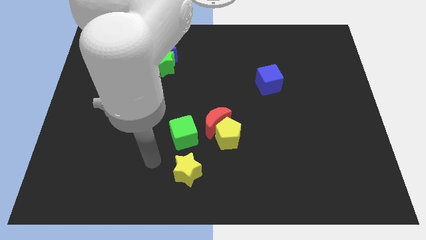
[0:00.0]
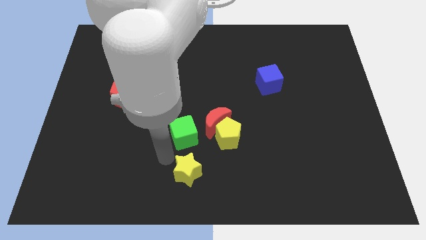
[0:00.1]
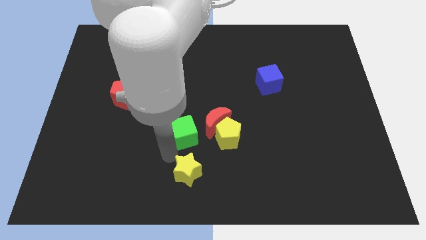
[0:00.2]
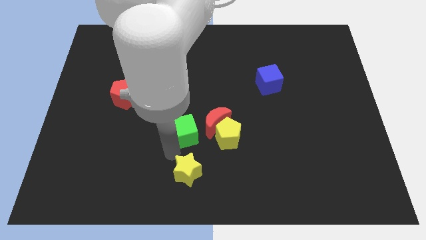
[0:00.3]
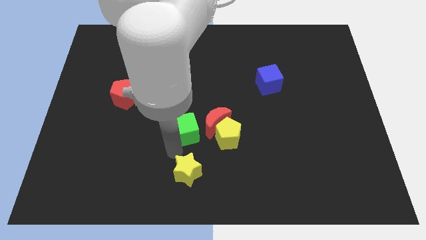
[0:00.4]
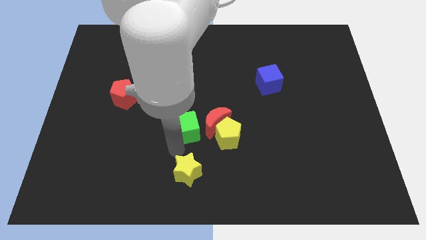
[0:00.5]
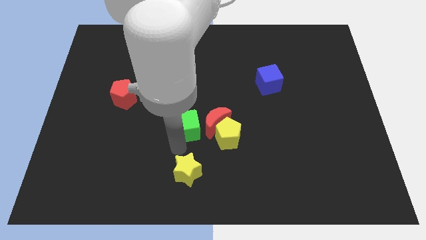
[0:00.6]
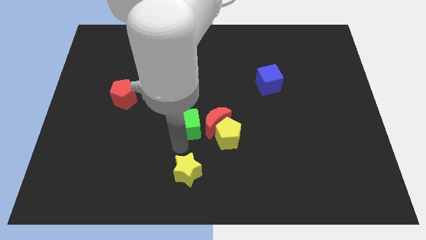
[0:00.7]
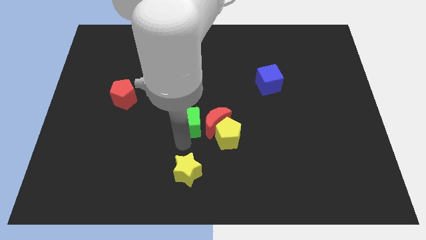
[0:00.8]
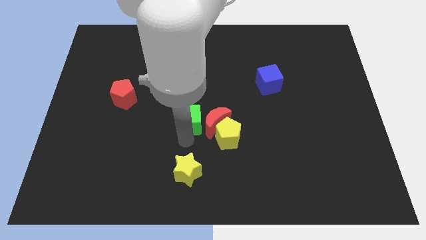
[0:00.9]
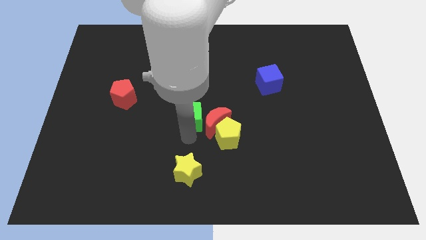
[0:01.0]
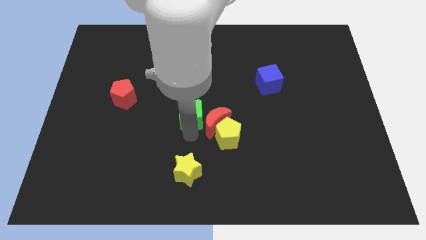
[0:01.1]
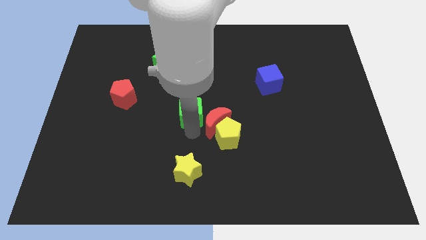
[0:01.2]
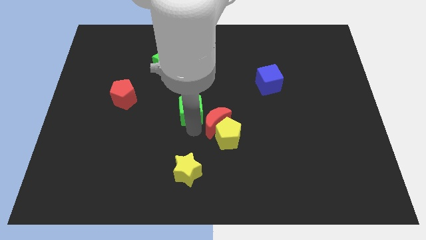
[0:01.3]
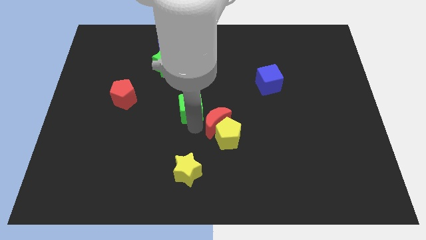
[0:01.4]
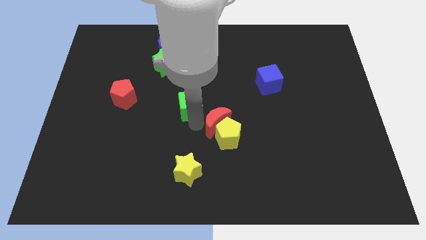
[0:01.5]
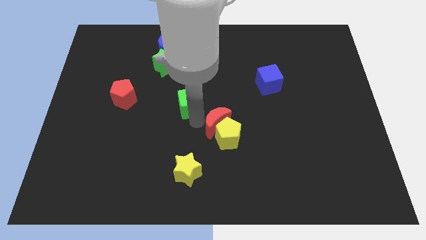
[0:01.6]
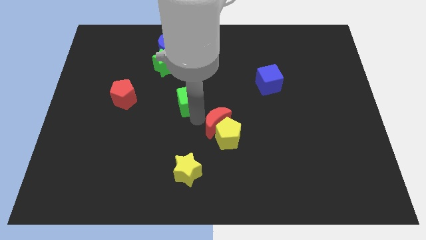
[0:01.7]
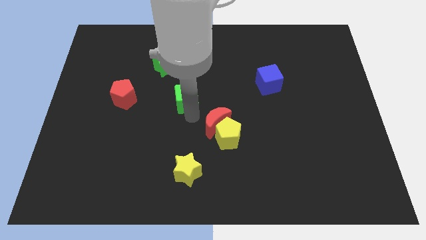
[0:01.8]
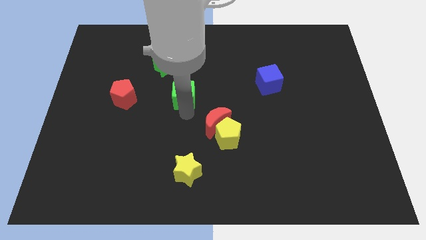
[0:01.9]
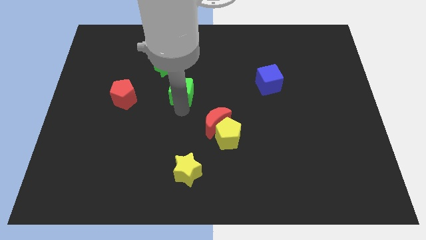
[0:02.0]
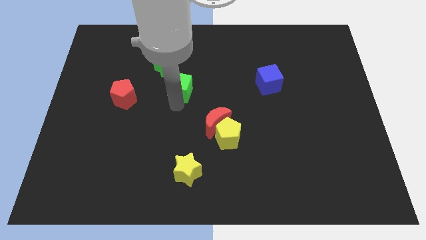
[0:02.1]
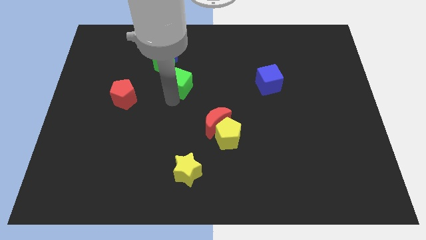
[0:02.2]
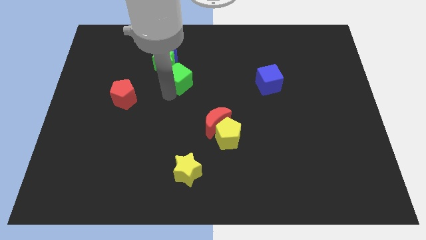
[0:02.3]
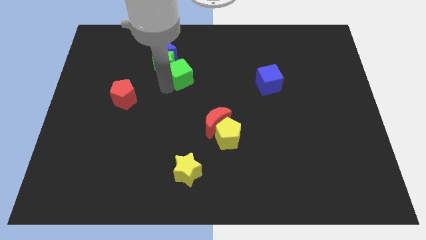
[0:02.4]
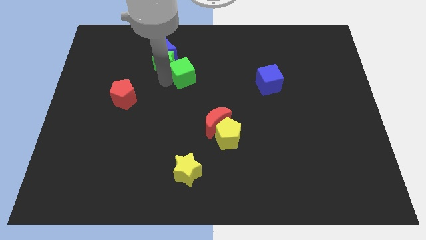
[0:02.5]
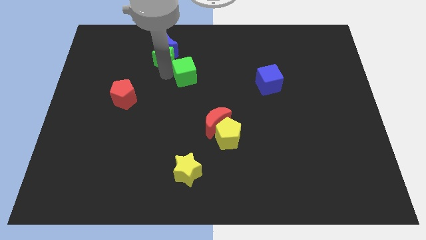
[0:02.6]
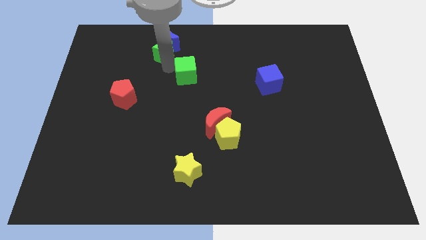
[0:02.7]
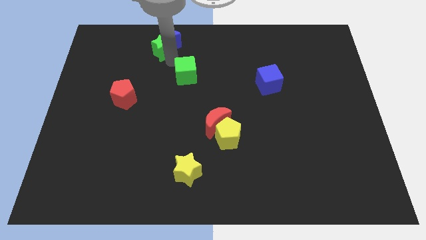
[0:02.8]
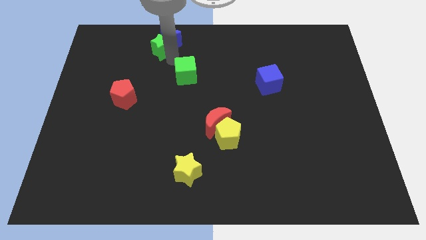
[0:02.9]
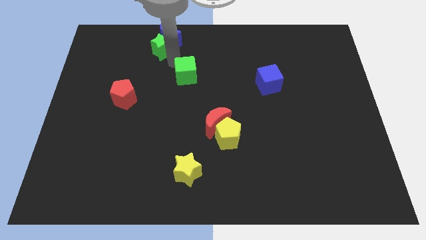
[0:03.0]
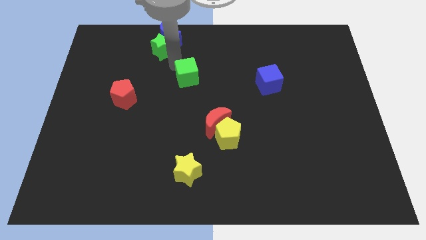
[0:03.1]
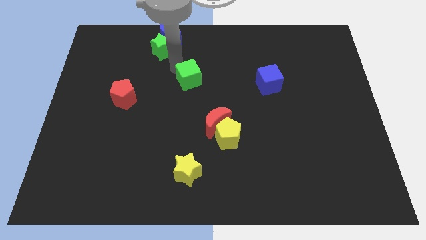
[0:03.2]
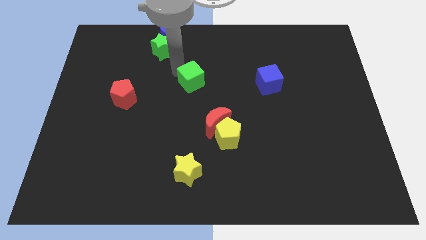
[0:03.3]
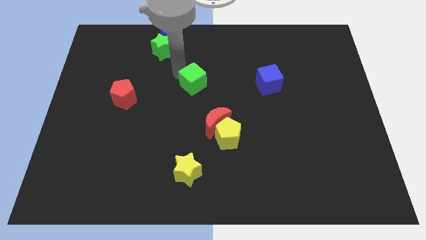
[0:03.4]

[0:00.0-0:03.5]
move the green cube somewhat diagonally up and right

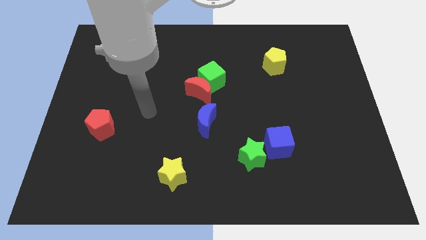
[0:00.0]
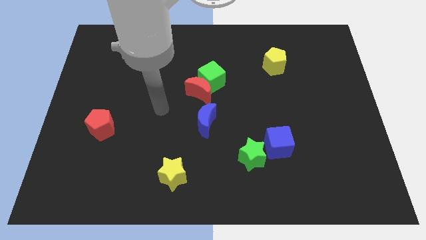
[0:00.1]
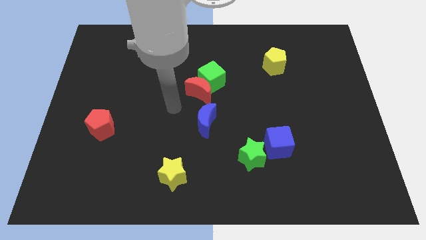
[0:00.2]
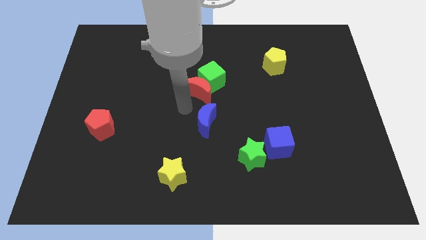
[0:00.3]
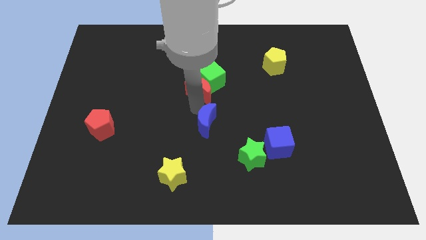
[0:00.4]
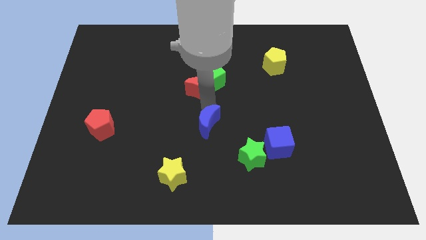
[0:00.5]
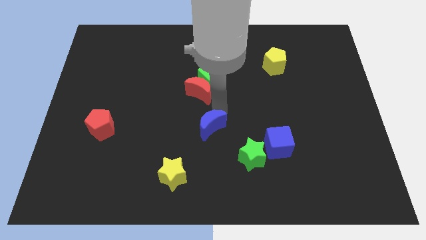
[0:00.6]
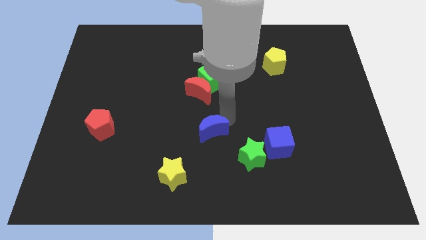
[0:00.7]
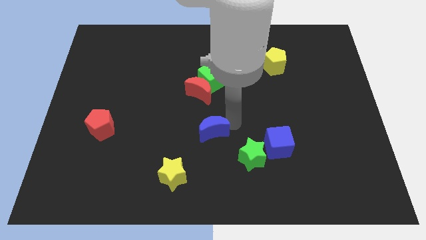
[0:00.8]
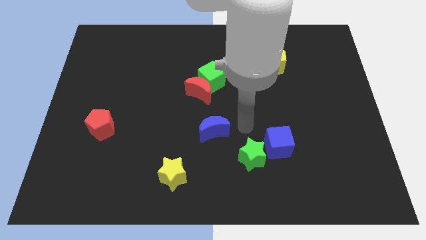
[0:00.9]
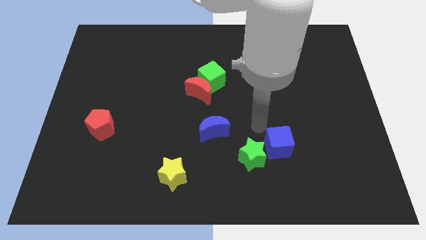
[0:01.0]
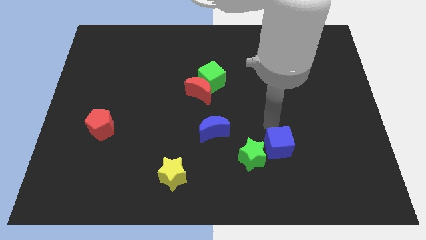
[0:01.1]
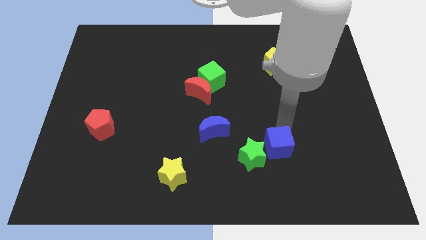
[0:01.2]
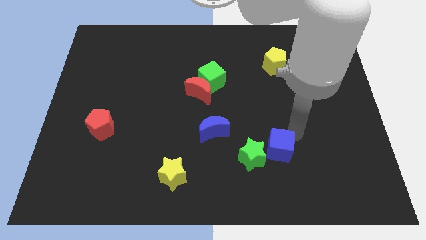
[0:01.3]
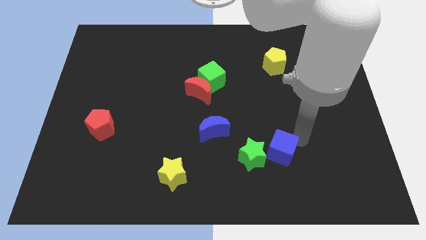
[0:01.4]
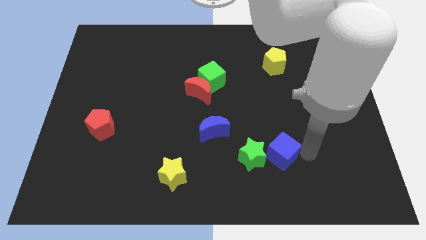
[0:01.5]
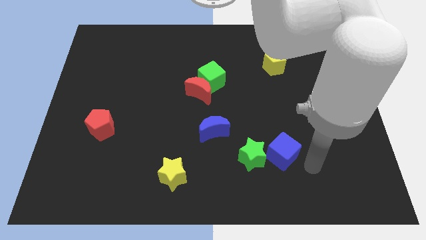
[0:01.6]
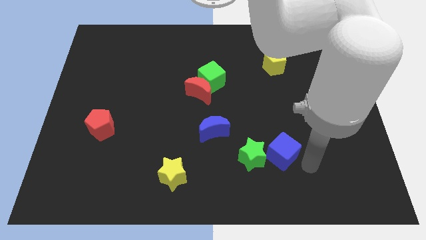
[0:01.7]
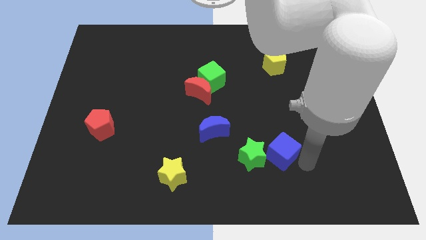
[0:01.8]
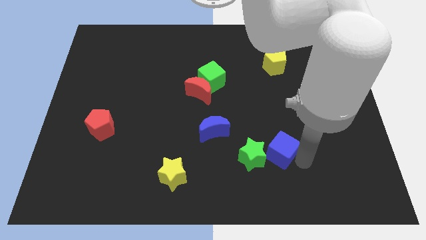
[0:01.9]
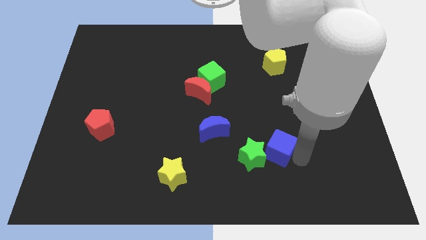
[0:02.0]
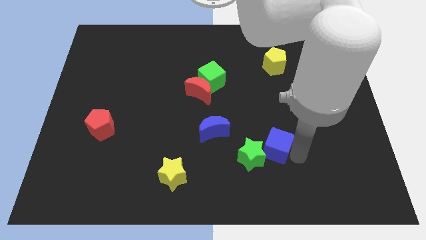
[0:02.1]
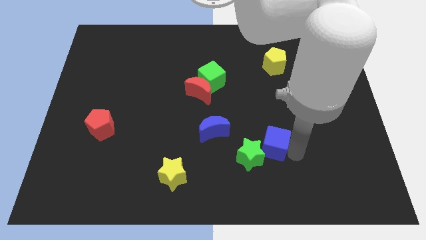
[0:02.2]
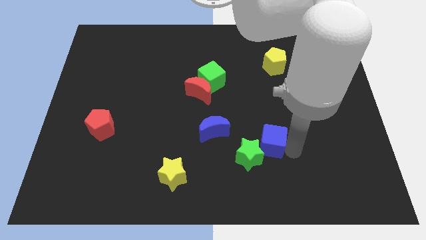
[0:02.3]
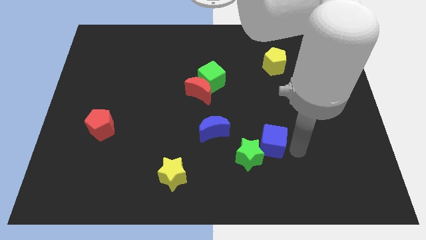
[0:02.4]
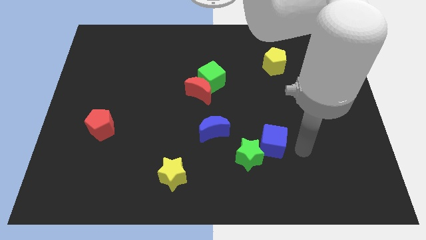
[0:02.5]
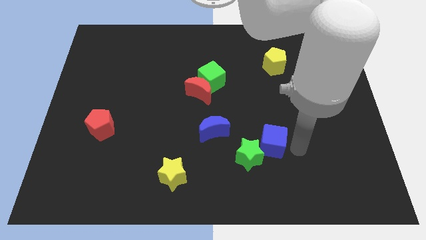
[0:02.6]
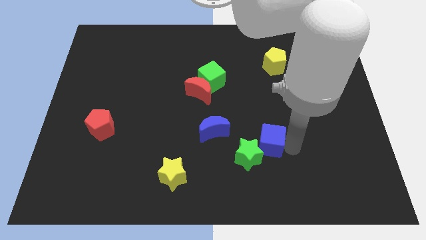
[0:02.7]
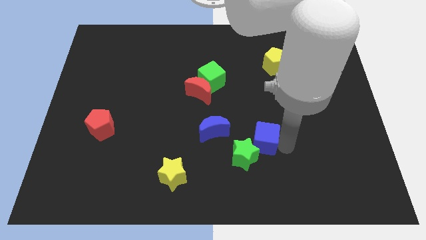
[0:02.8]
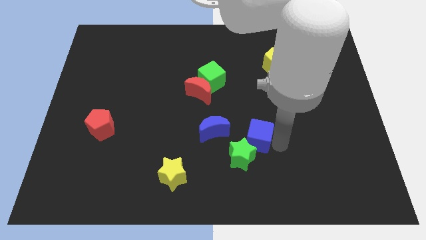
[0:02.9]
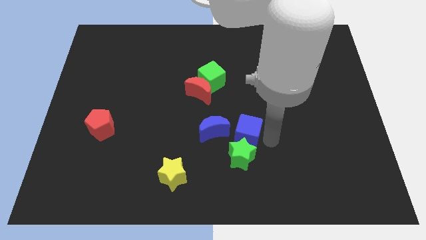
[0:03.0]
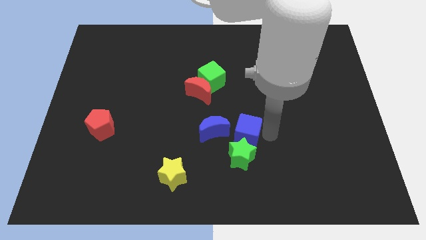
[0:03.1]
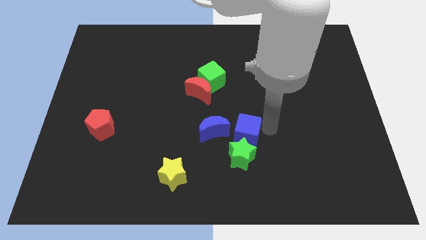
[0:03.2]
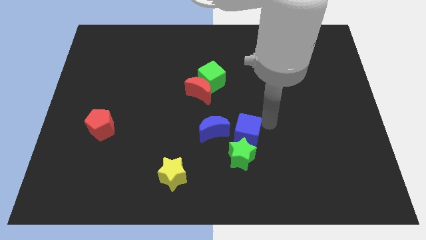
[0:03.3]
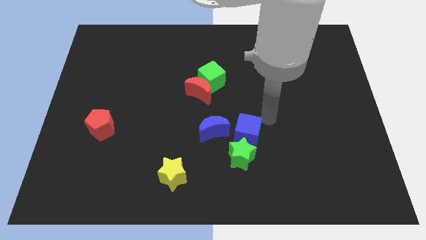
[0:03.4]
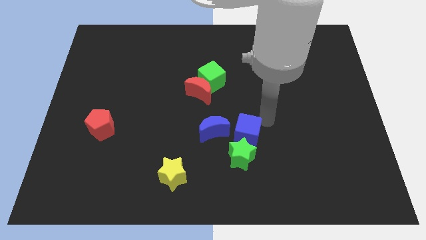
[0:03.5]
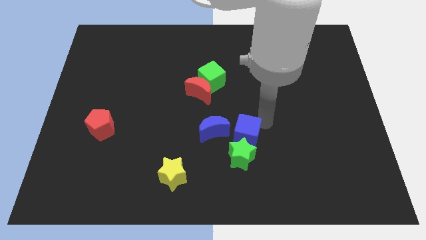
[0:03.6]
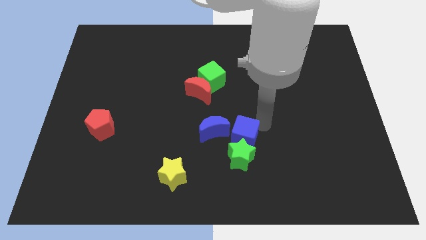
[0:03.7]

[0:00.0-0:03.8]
push the blue cube somewhat to the left

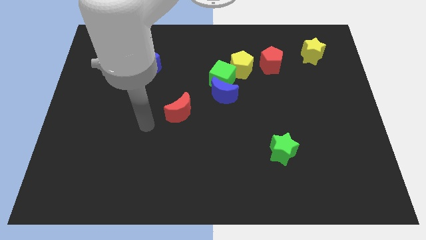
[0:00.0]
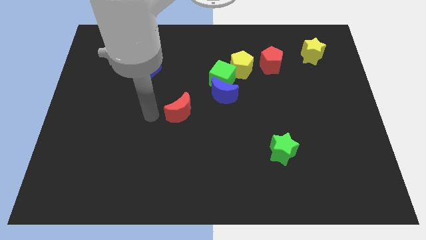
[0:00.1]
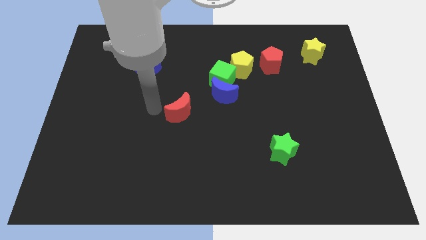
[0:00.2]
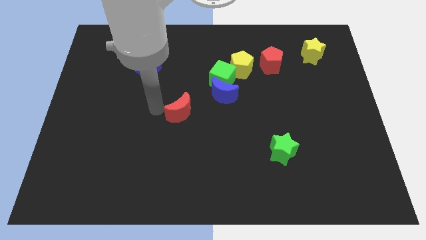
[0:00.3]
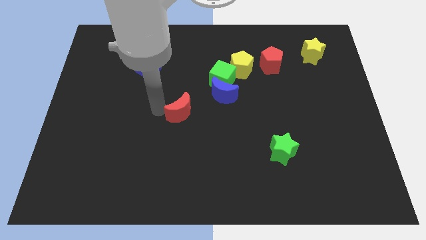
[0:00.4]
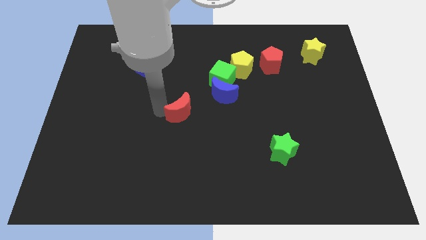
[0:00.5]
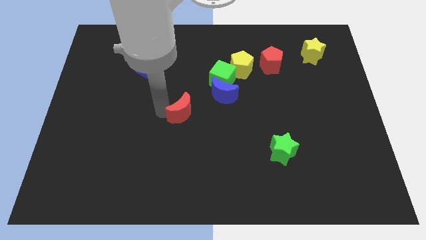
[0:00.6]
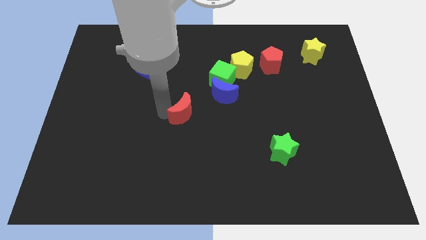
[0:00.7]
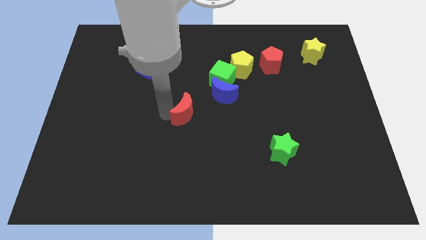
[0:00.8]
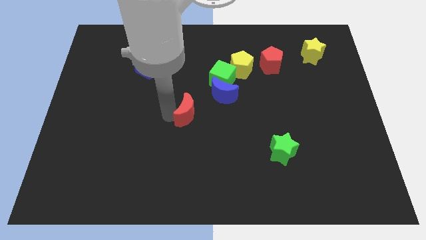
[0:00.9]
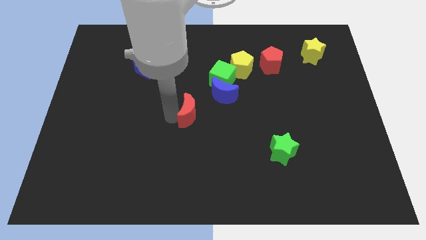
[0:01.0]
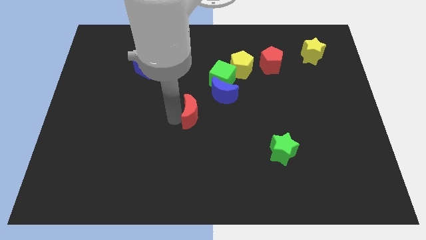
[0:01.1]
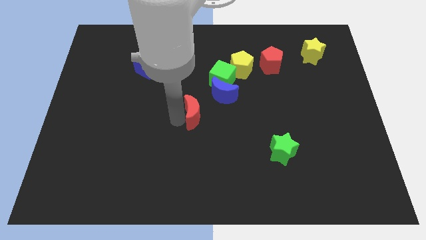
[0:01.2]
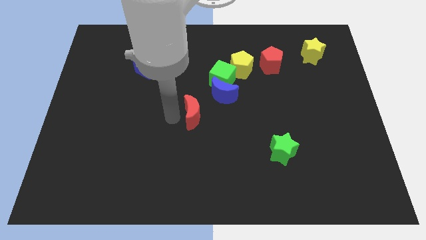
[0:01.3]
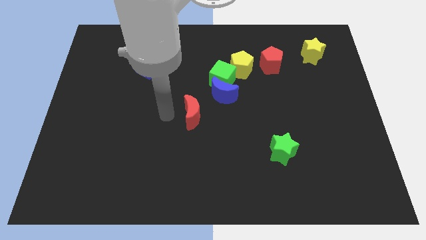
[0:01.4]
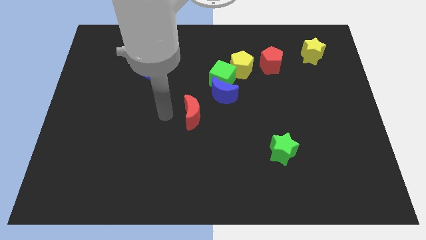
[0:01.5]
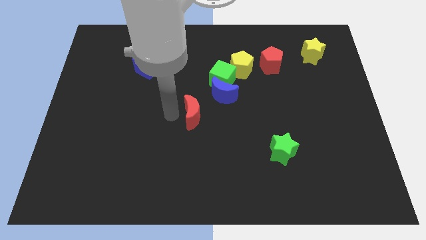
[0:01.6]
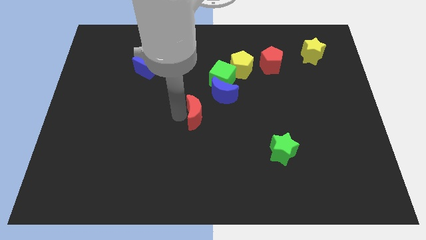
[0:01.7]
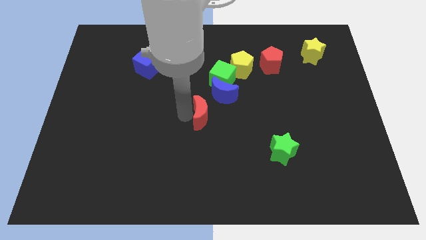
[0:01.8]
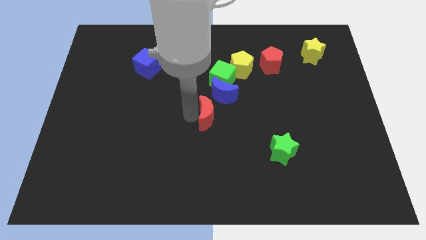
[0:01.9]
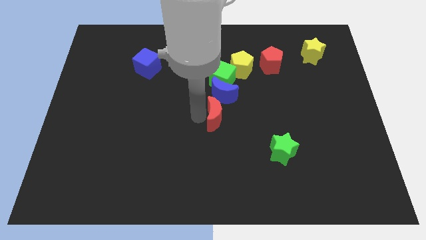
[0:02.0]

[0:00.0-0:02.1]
move the red moon a little bit right
